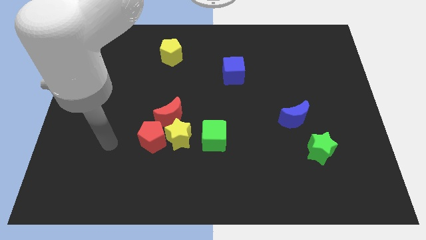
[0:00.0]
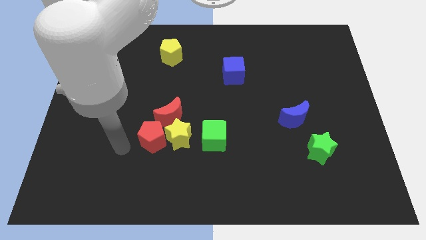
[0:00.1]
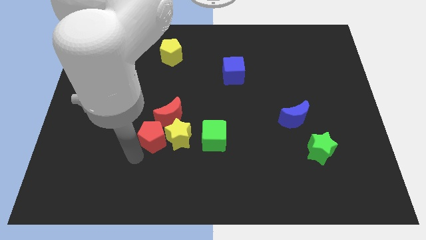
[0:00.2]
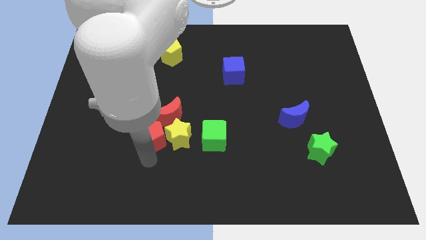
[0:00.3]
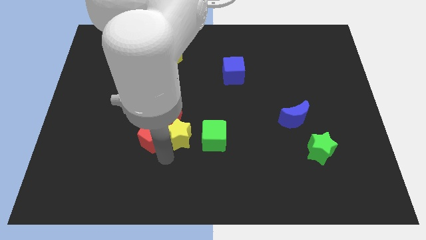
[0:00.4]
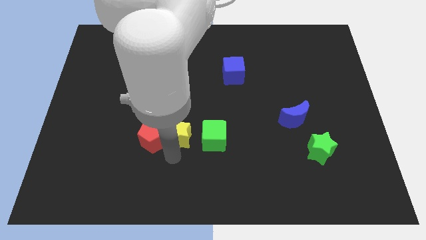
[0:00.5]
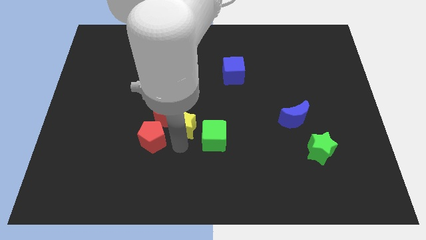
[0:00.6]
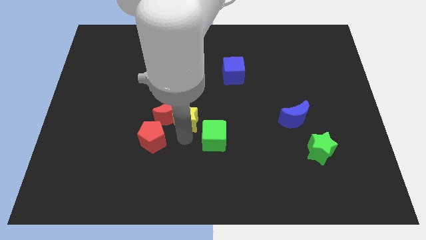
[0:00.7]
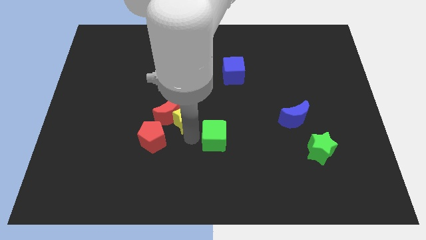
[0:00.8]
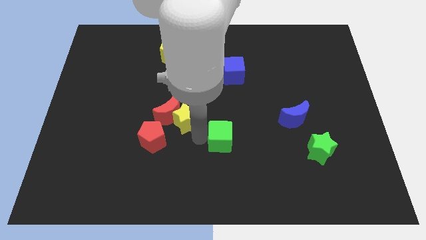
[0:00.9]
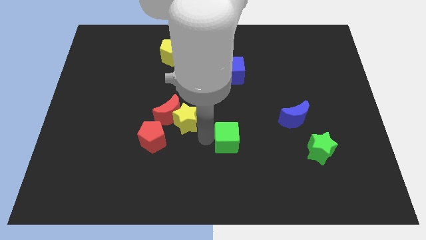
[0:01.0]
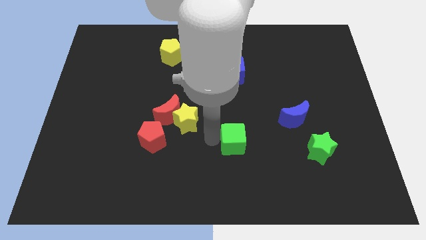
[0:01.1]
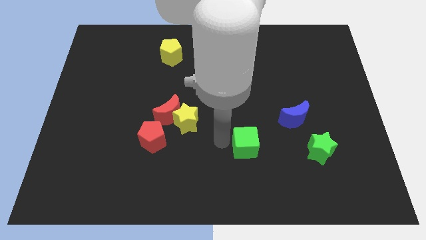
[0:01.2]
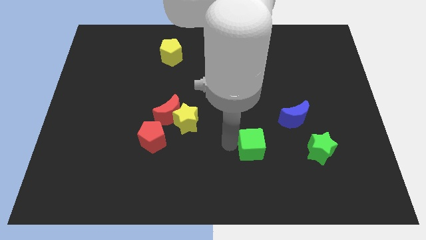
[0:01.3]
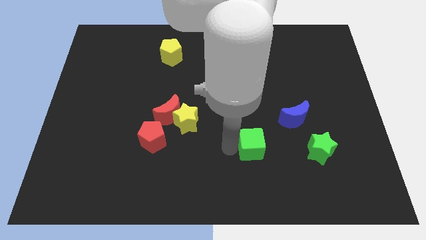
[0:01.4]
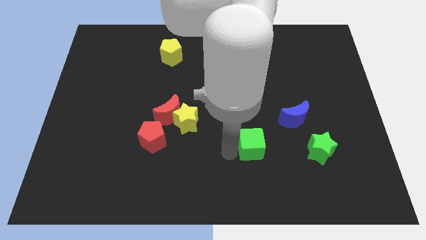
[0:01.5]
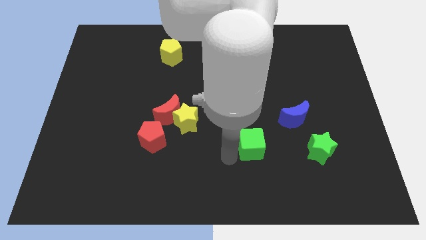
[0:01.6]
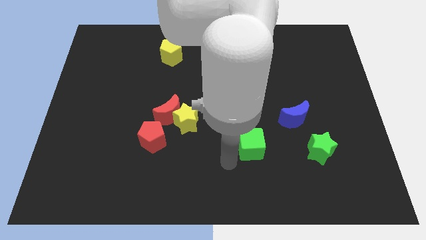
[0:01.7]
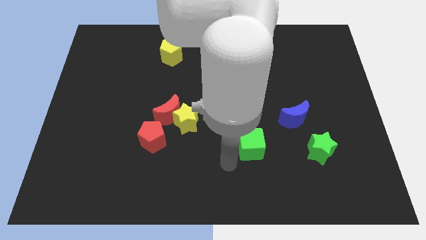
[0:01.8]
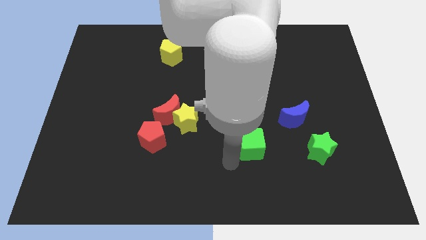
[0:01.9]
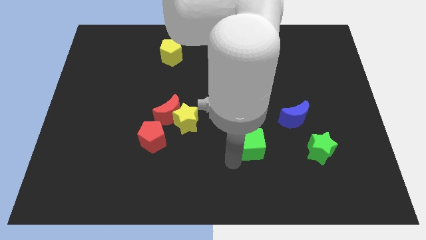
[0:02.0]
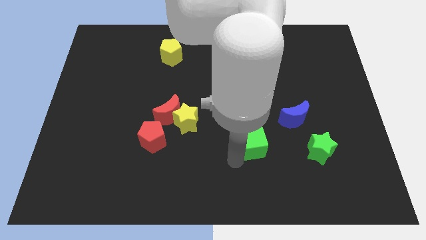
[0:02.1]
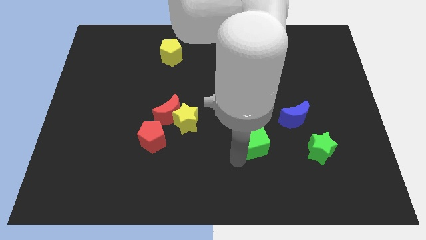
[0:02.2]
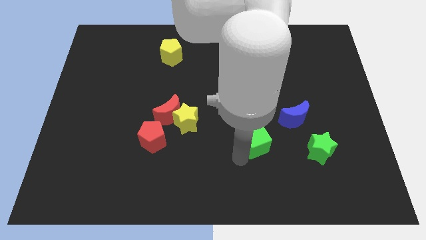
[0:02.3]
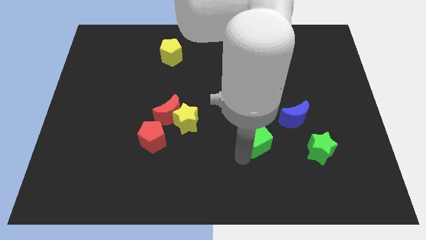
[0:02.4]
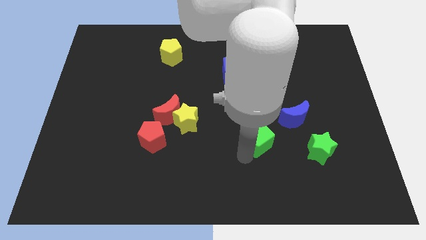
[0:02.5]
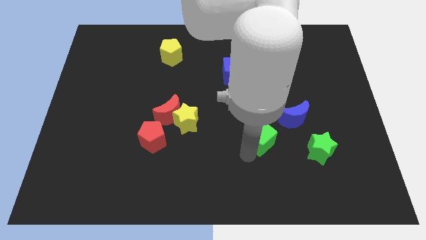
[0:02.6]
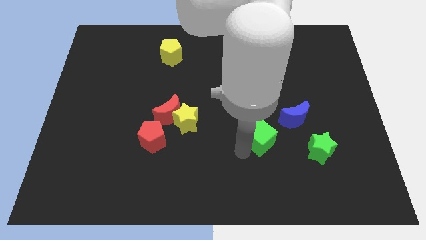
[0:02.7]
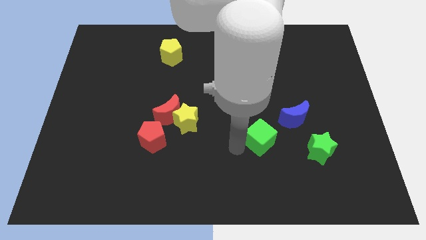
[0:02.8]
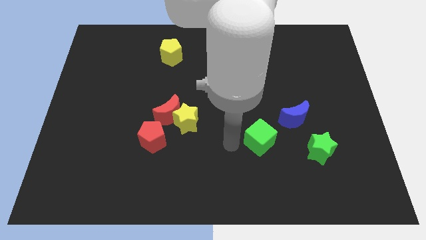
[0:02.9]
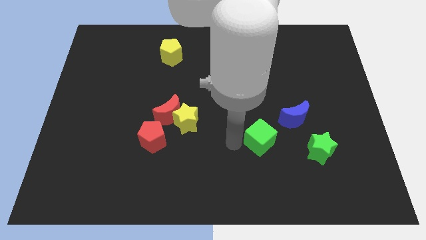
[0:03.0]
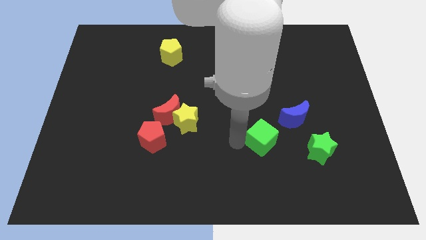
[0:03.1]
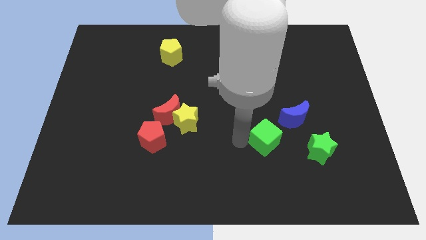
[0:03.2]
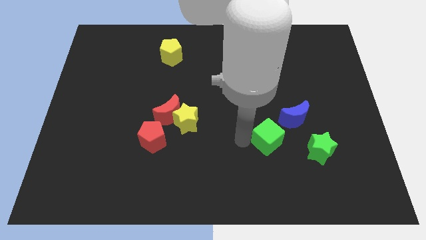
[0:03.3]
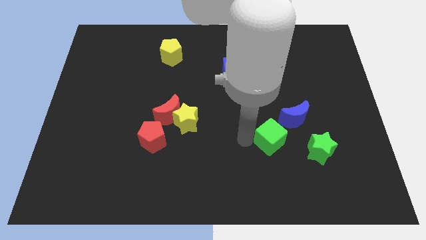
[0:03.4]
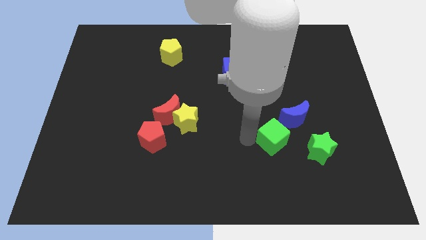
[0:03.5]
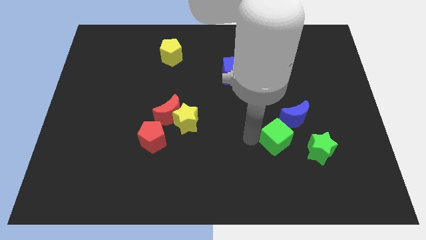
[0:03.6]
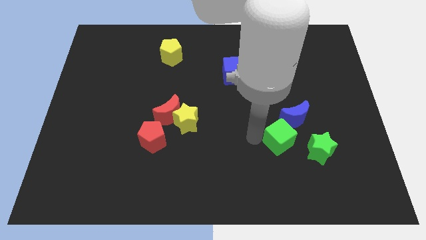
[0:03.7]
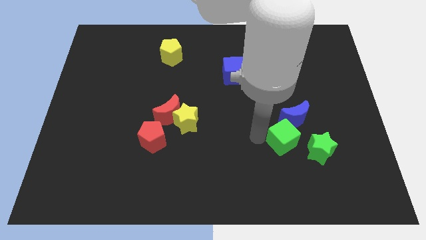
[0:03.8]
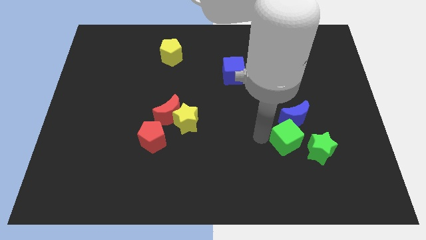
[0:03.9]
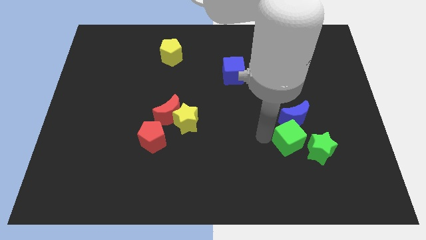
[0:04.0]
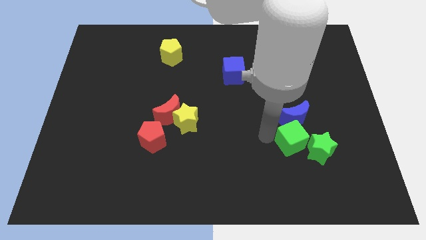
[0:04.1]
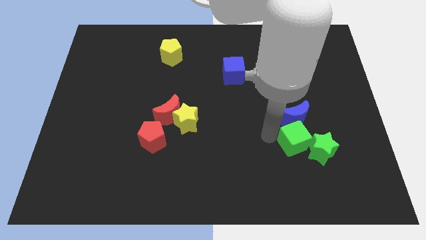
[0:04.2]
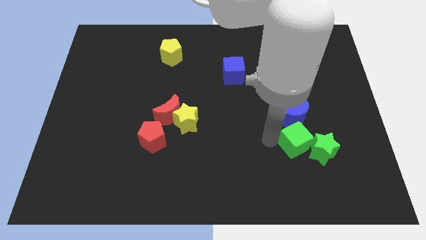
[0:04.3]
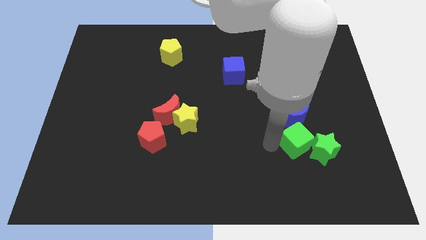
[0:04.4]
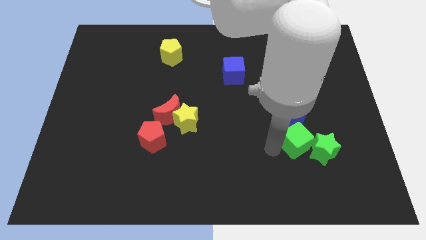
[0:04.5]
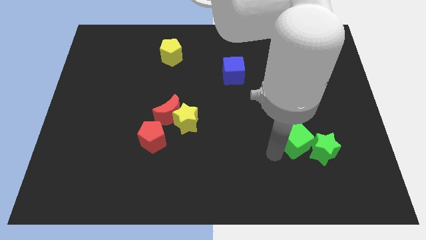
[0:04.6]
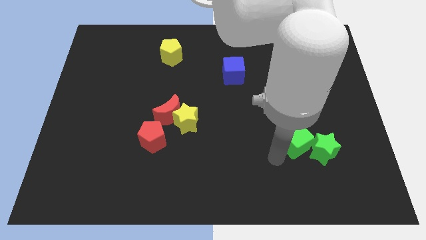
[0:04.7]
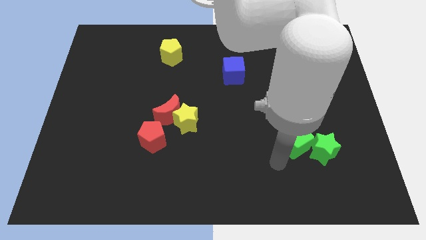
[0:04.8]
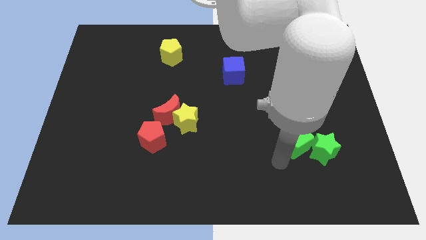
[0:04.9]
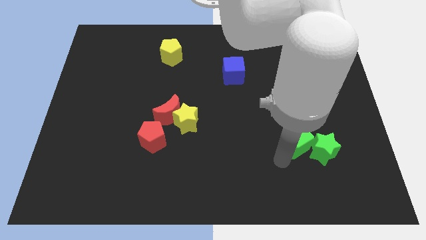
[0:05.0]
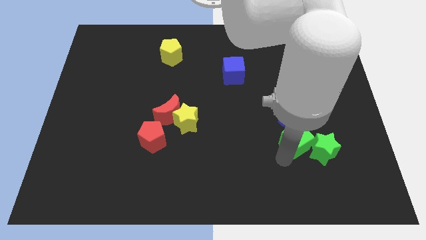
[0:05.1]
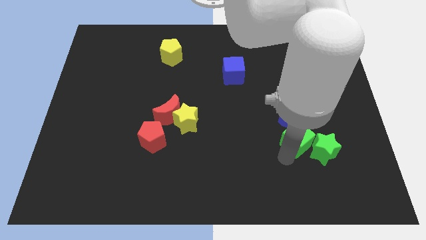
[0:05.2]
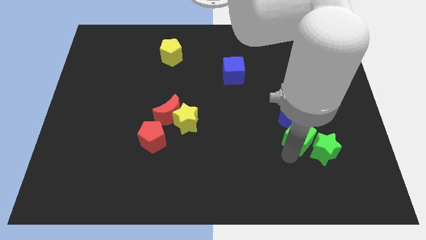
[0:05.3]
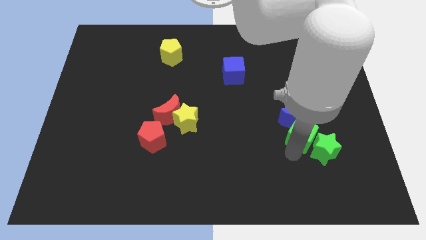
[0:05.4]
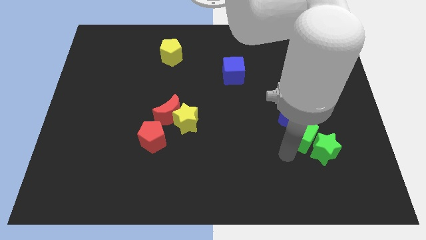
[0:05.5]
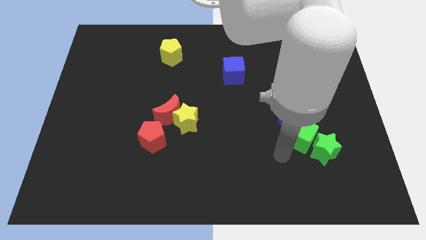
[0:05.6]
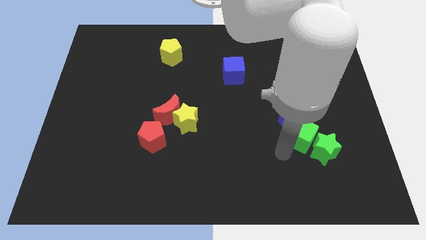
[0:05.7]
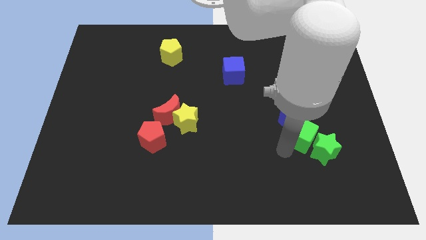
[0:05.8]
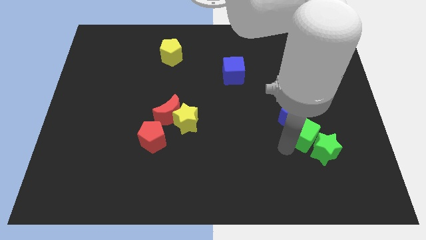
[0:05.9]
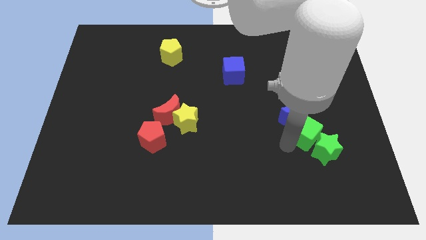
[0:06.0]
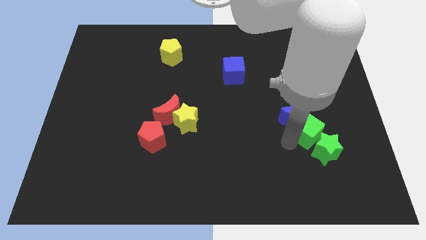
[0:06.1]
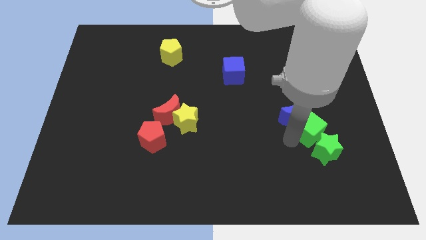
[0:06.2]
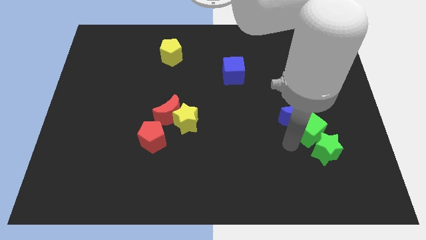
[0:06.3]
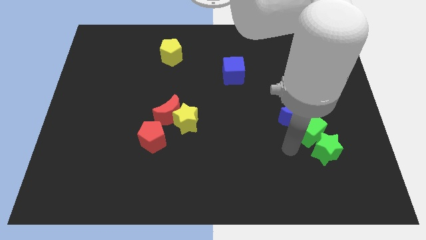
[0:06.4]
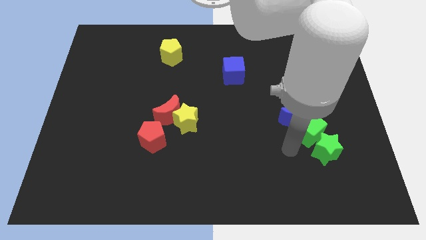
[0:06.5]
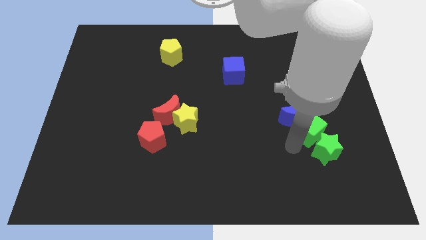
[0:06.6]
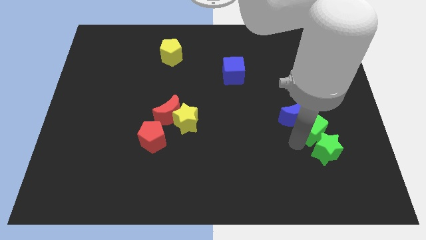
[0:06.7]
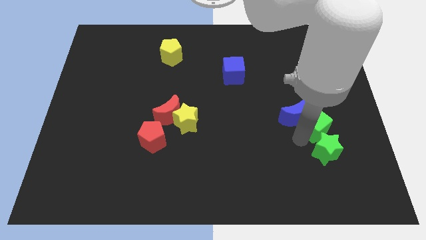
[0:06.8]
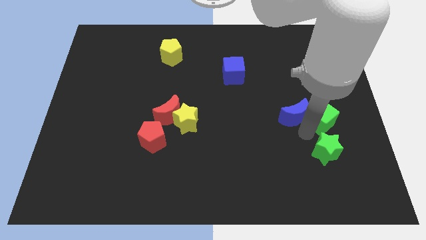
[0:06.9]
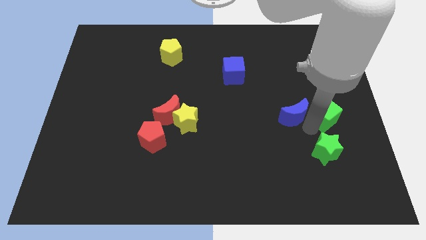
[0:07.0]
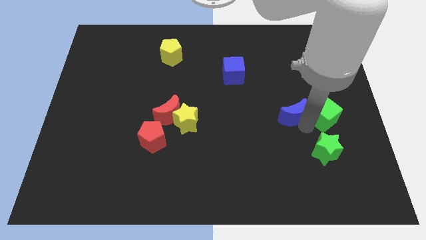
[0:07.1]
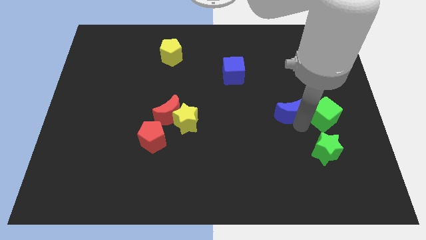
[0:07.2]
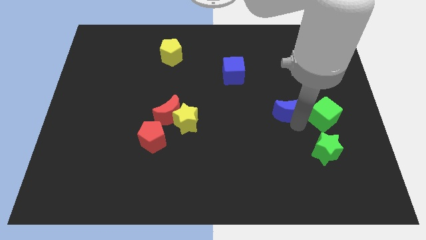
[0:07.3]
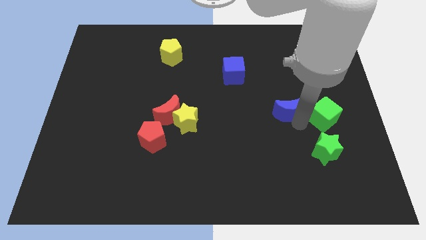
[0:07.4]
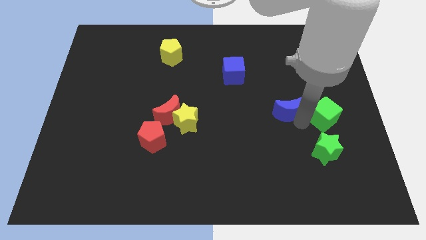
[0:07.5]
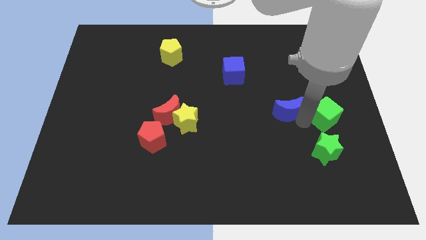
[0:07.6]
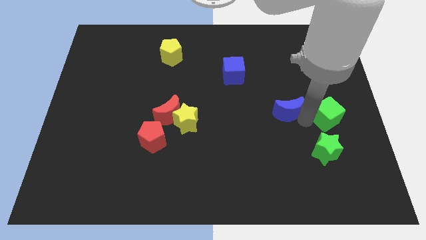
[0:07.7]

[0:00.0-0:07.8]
push the green cube to the right side
